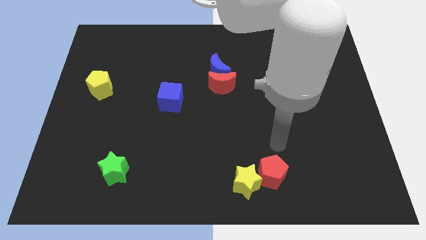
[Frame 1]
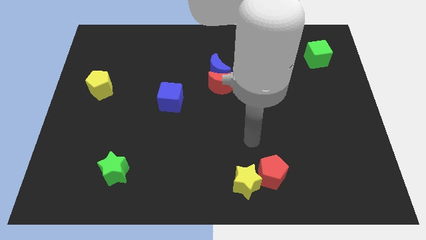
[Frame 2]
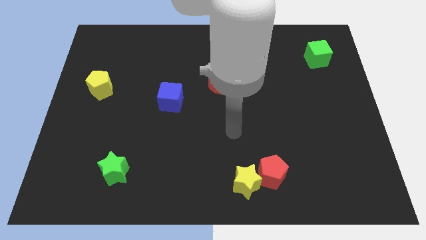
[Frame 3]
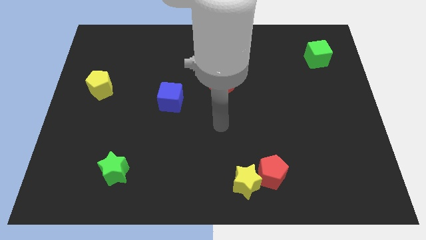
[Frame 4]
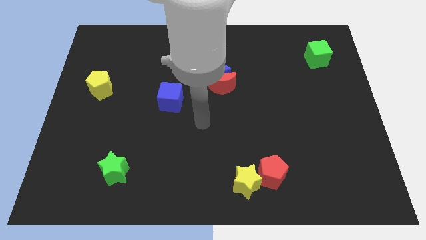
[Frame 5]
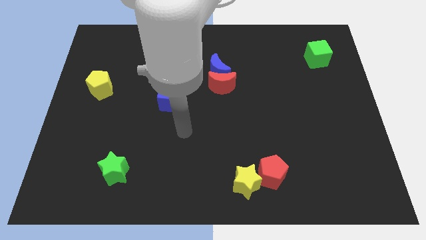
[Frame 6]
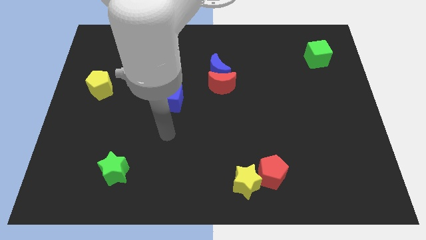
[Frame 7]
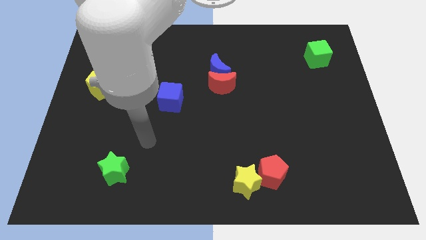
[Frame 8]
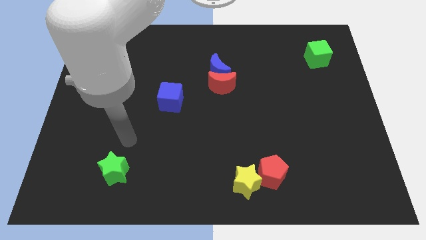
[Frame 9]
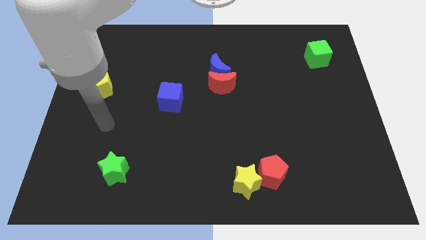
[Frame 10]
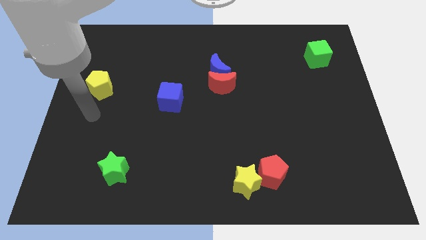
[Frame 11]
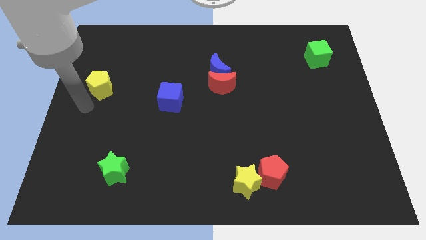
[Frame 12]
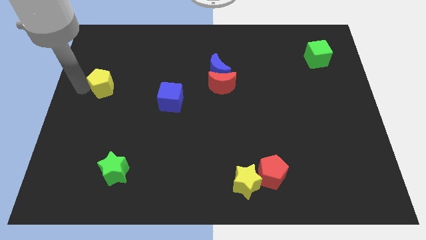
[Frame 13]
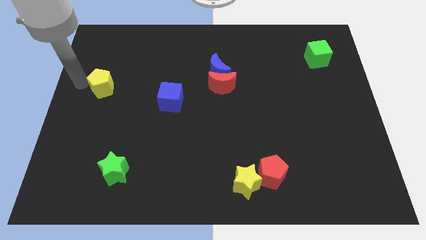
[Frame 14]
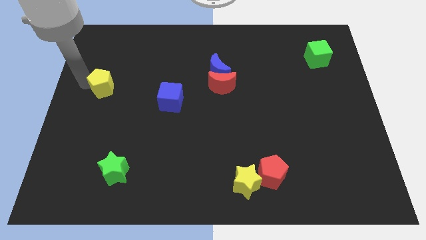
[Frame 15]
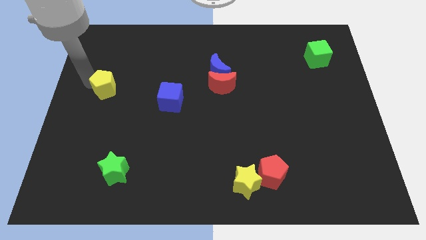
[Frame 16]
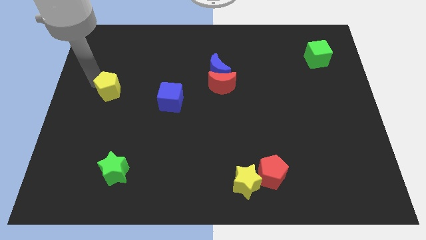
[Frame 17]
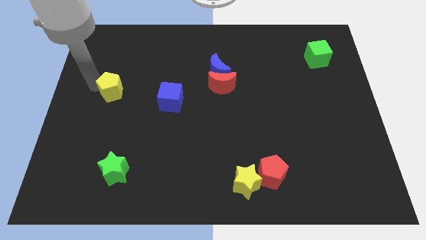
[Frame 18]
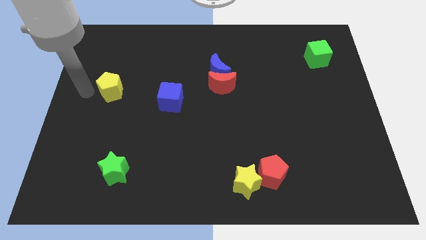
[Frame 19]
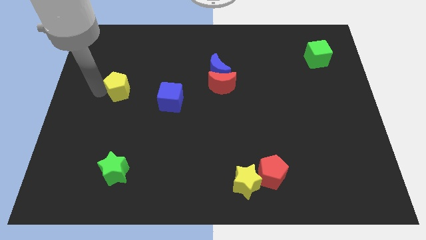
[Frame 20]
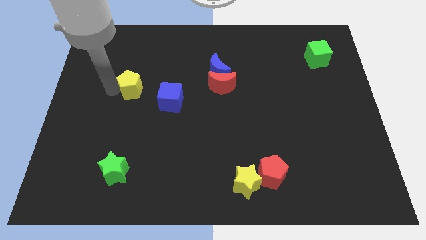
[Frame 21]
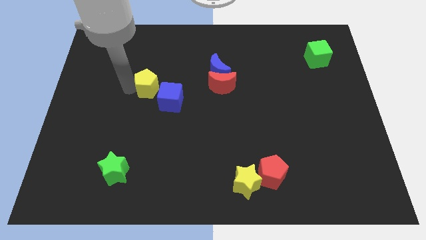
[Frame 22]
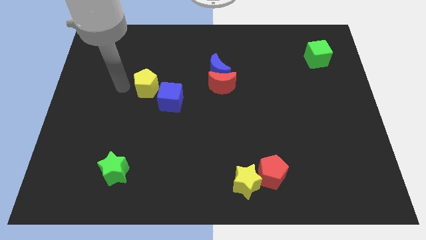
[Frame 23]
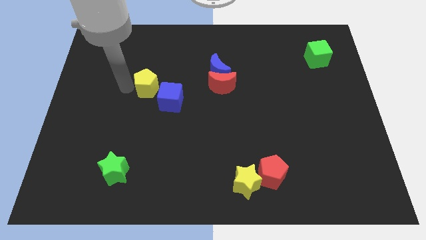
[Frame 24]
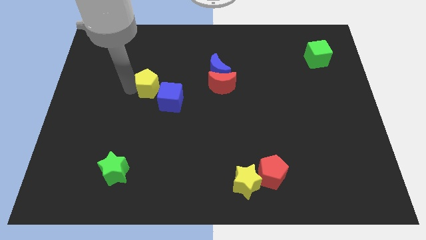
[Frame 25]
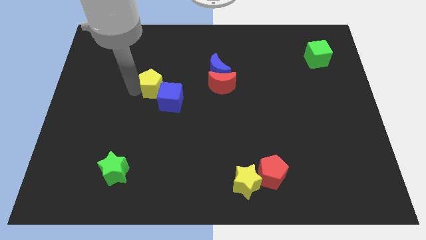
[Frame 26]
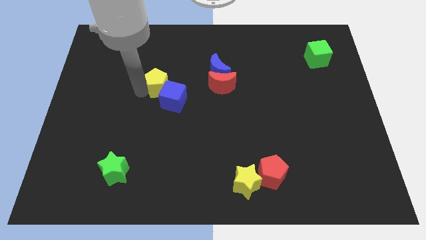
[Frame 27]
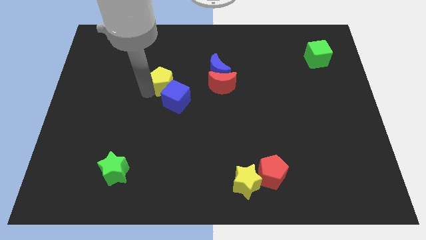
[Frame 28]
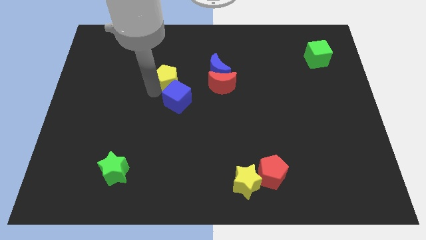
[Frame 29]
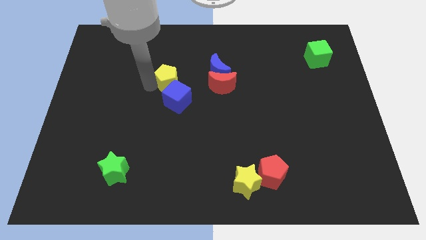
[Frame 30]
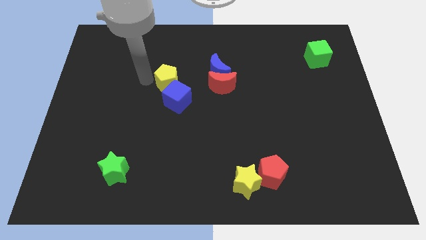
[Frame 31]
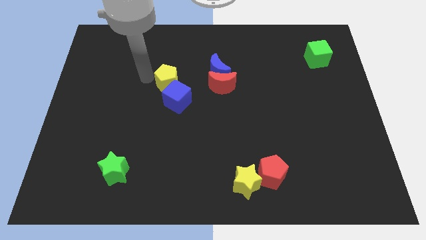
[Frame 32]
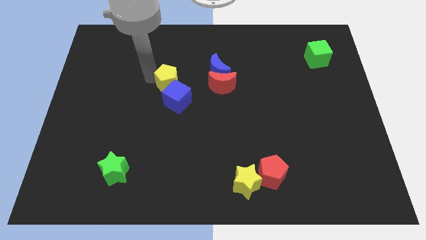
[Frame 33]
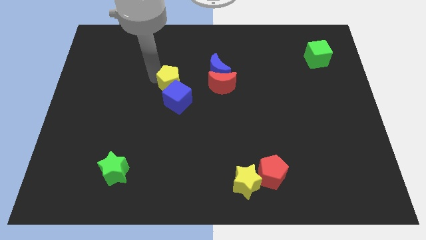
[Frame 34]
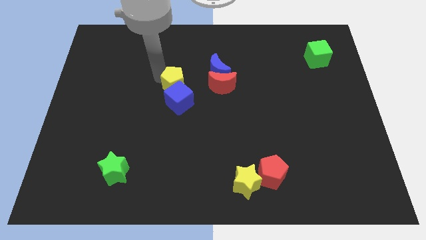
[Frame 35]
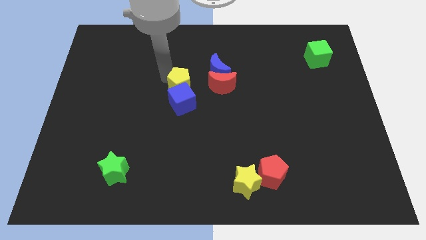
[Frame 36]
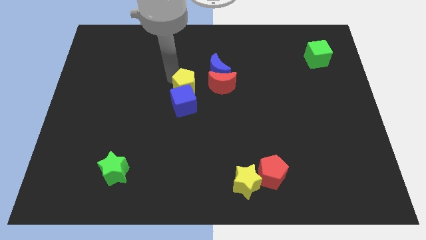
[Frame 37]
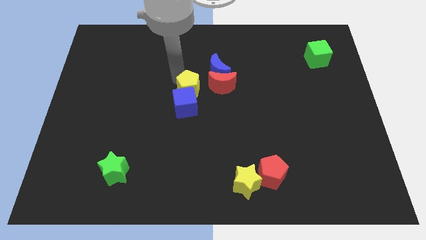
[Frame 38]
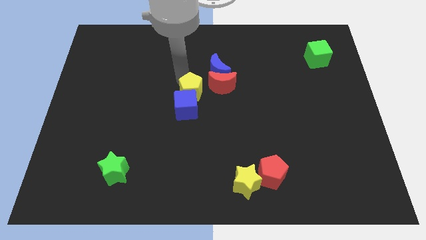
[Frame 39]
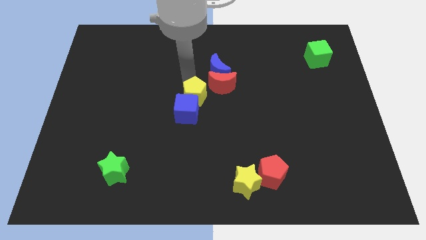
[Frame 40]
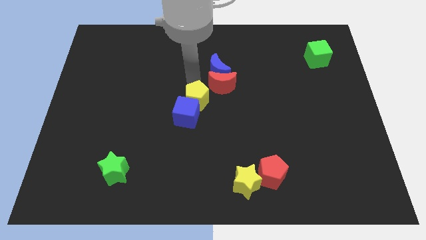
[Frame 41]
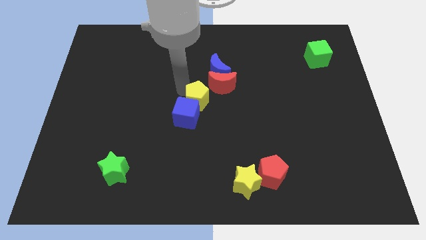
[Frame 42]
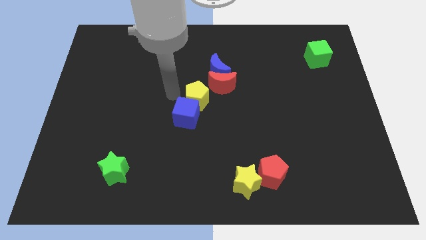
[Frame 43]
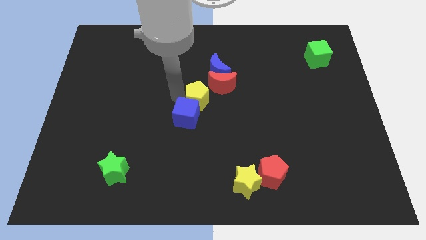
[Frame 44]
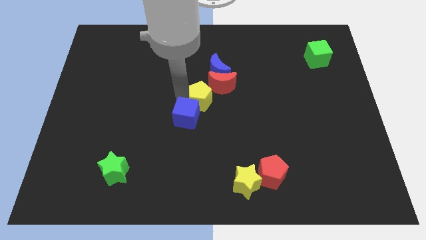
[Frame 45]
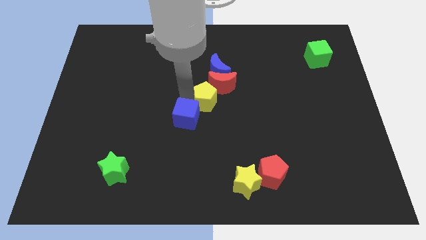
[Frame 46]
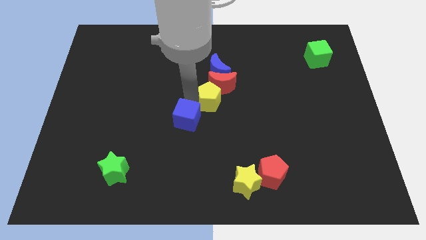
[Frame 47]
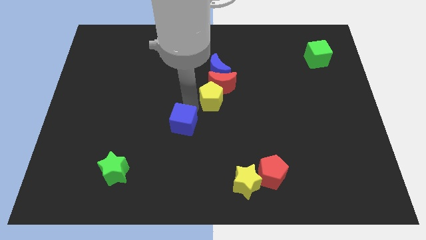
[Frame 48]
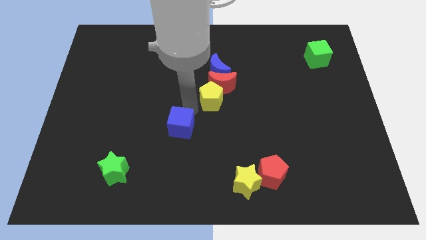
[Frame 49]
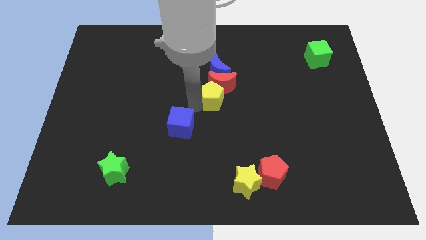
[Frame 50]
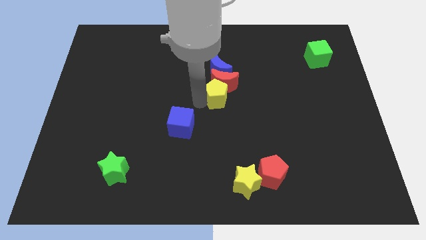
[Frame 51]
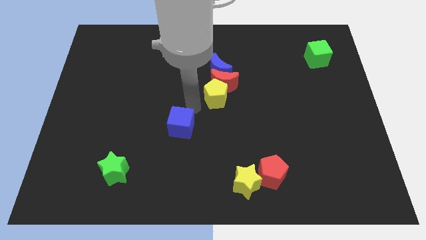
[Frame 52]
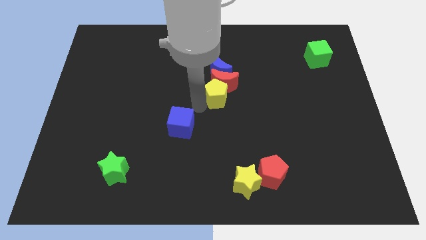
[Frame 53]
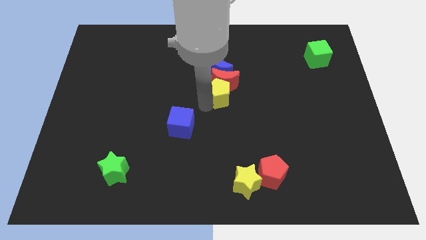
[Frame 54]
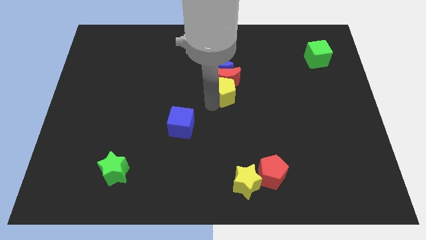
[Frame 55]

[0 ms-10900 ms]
put the yellow pentagon to the bottom right of the blue moon

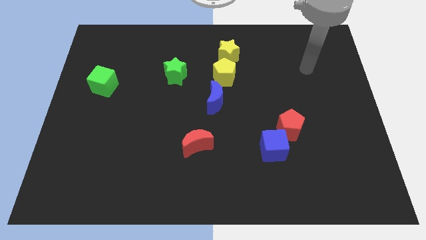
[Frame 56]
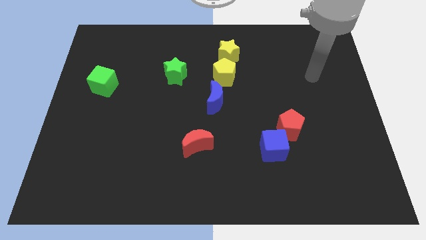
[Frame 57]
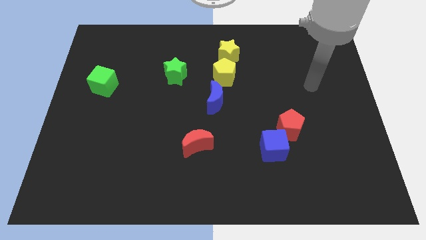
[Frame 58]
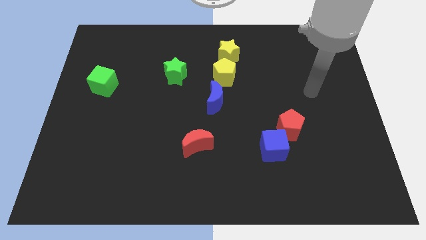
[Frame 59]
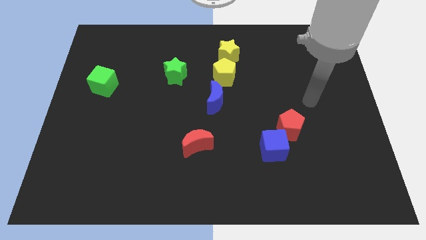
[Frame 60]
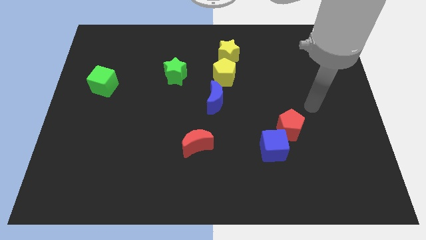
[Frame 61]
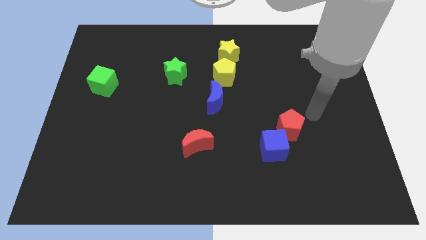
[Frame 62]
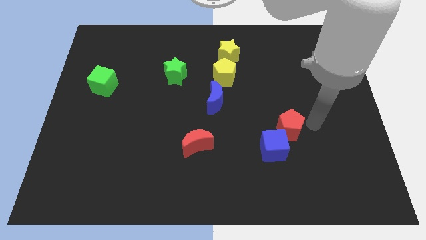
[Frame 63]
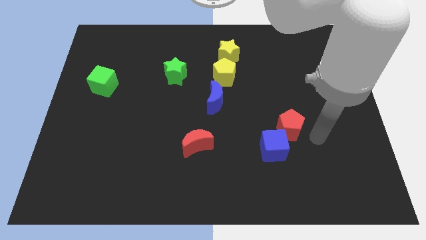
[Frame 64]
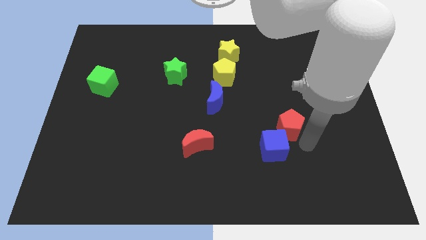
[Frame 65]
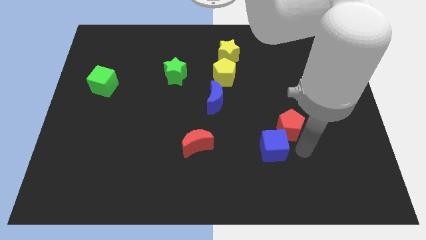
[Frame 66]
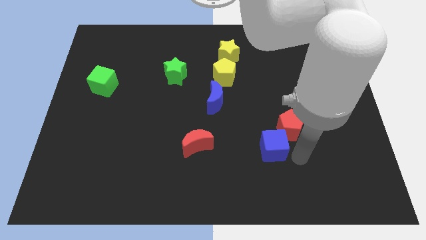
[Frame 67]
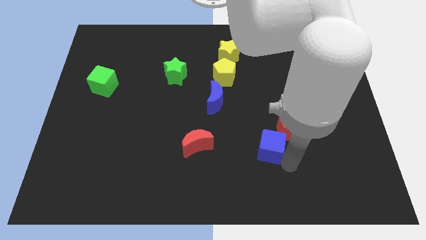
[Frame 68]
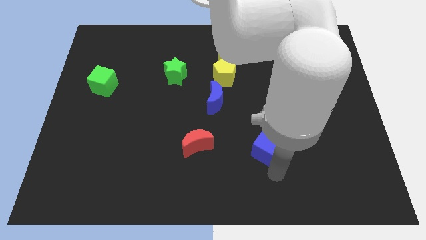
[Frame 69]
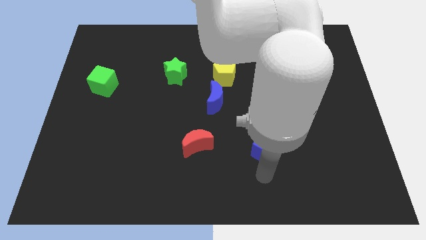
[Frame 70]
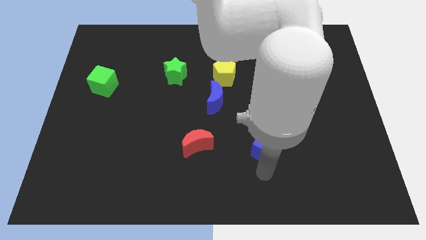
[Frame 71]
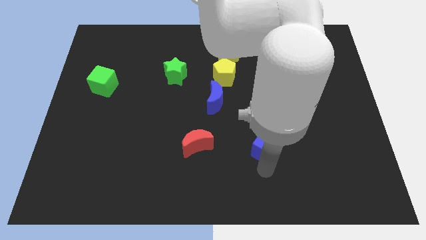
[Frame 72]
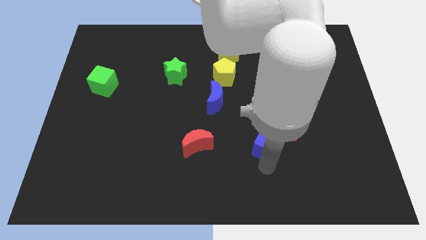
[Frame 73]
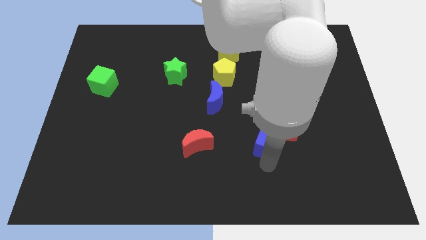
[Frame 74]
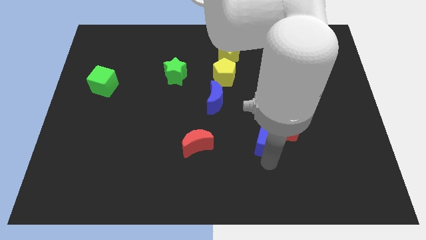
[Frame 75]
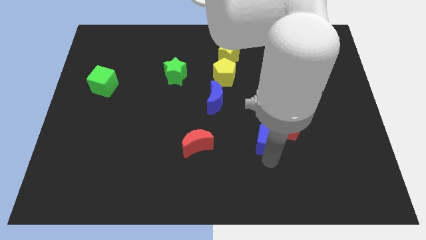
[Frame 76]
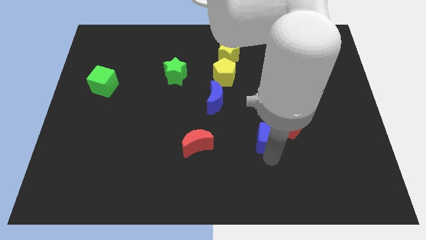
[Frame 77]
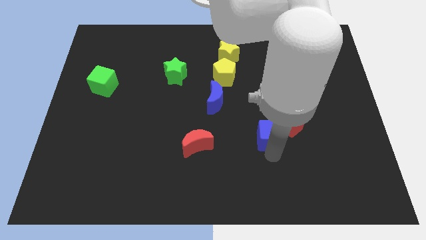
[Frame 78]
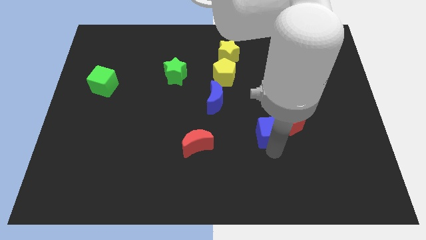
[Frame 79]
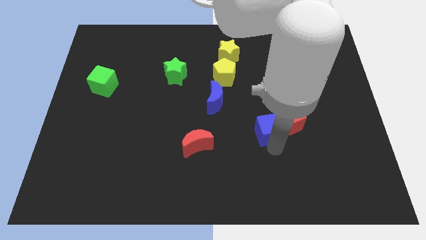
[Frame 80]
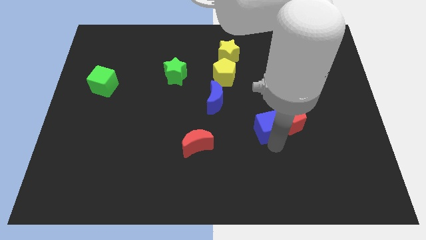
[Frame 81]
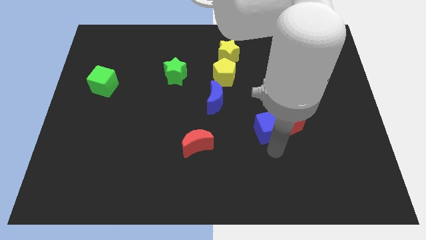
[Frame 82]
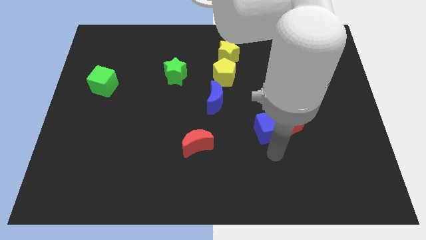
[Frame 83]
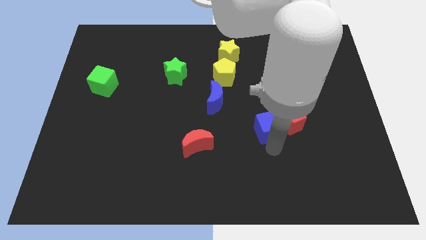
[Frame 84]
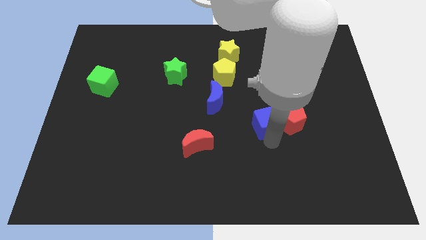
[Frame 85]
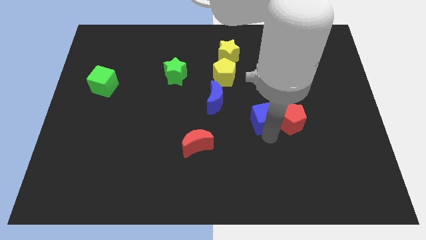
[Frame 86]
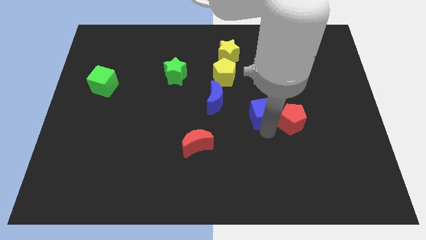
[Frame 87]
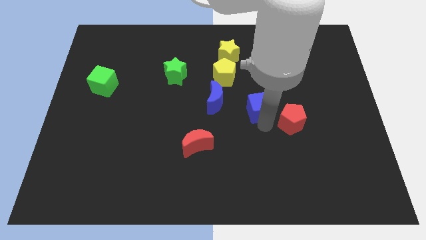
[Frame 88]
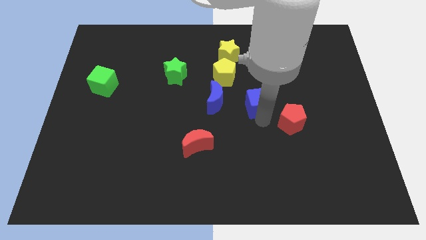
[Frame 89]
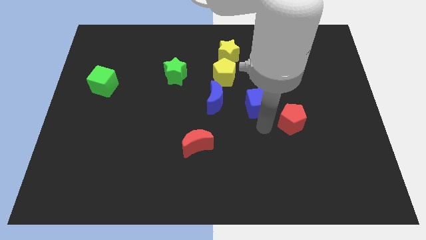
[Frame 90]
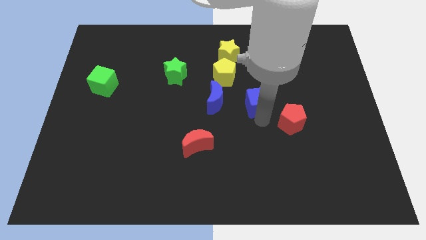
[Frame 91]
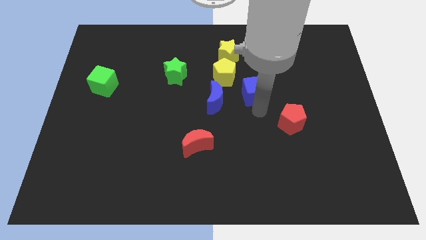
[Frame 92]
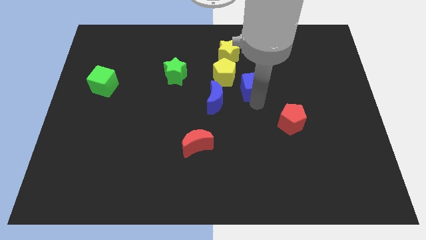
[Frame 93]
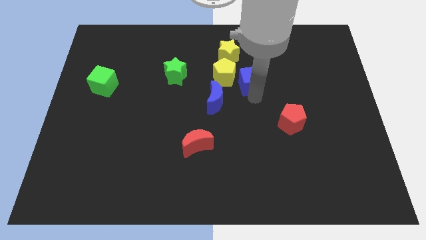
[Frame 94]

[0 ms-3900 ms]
move the blue cube to the bottom right of the yellow star
